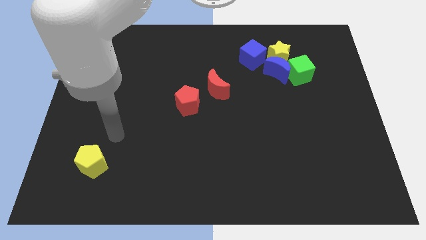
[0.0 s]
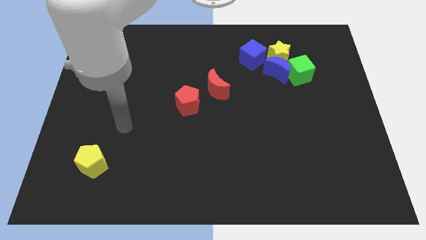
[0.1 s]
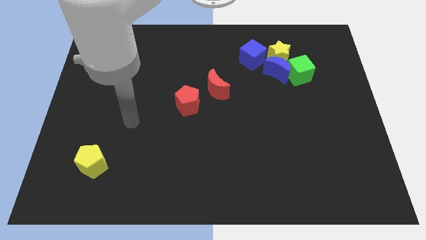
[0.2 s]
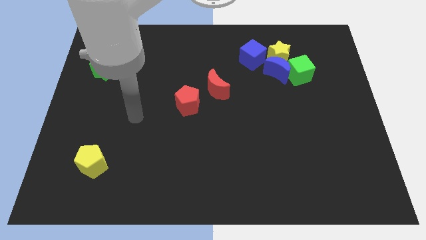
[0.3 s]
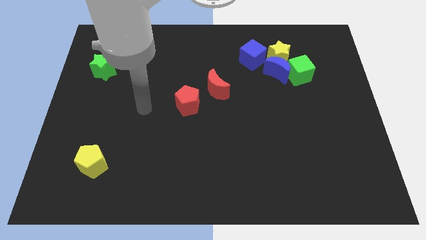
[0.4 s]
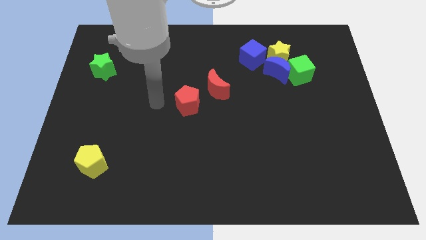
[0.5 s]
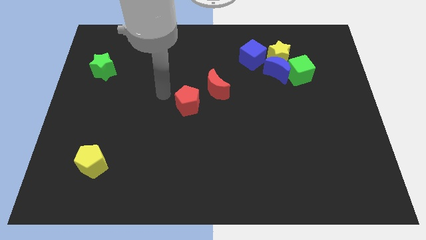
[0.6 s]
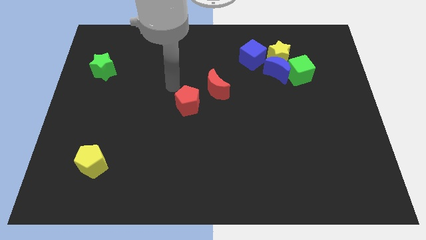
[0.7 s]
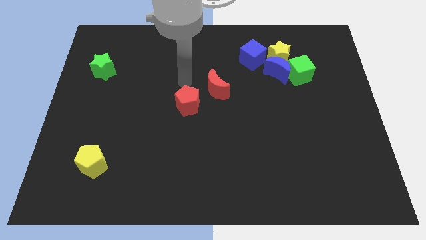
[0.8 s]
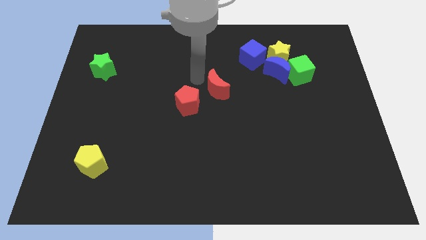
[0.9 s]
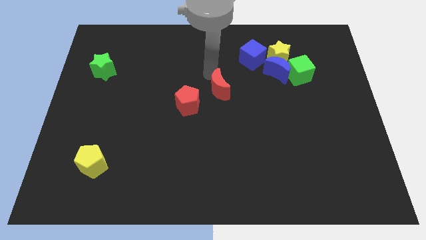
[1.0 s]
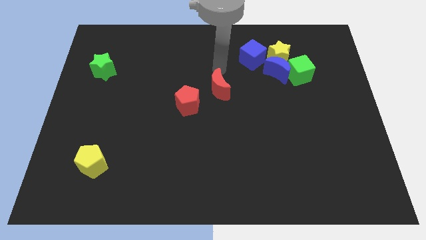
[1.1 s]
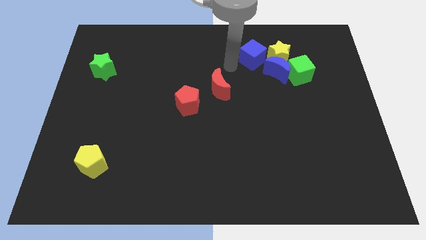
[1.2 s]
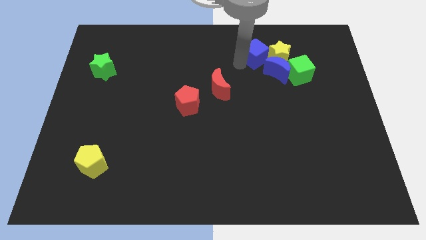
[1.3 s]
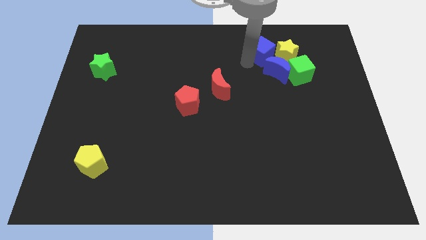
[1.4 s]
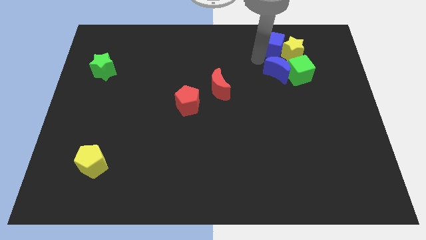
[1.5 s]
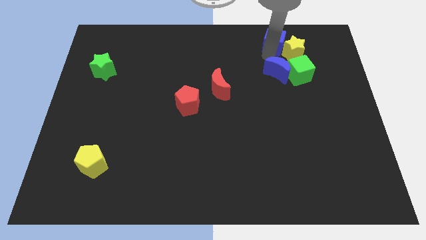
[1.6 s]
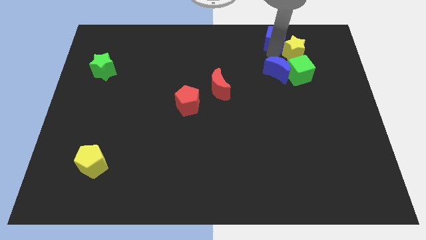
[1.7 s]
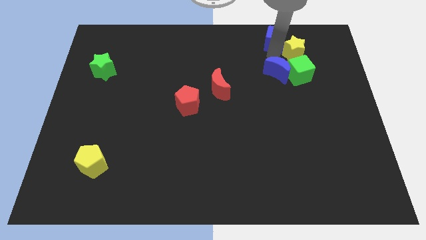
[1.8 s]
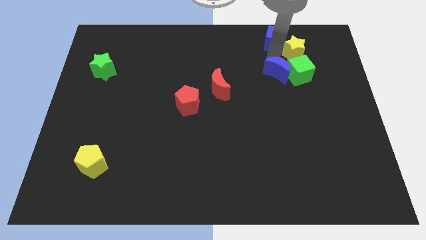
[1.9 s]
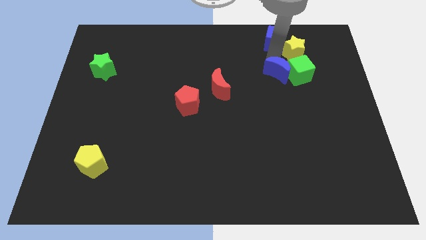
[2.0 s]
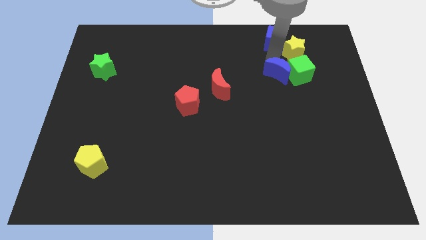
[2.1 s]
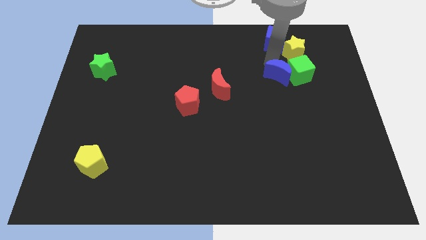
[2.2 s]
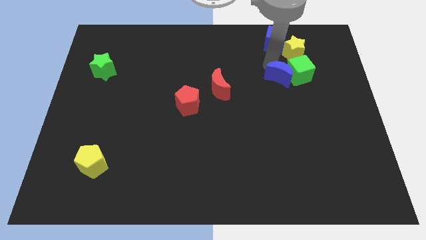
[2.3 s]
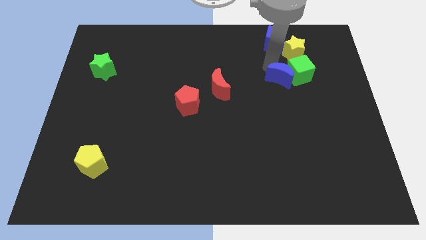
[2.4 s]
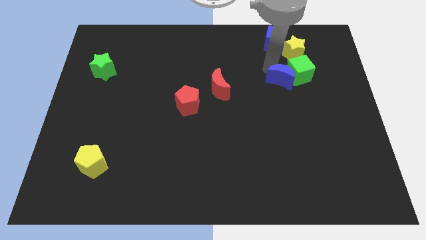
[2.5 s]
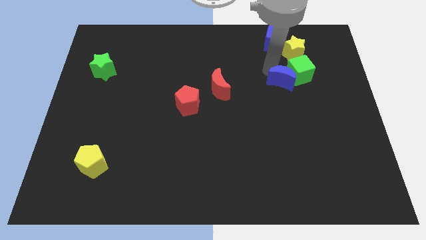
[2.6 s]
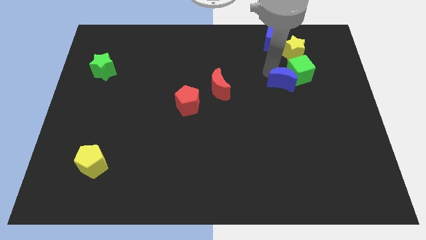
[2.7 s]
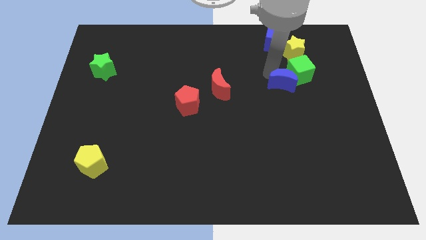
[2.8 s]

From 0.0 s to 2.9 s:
pull the blue moon apart from the clump

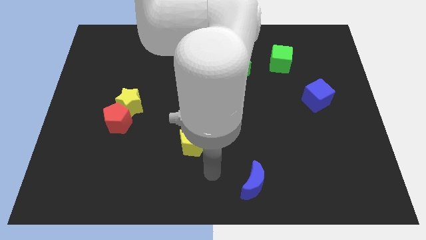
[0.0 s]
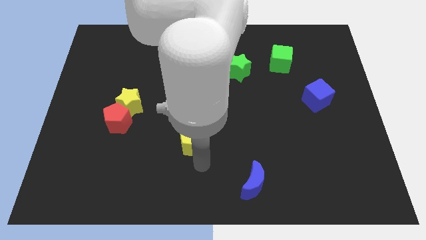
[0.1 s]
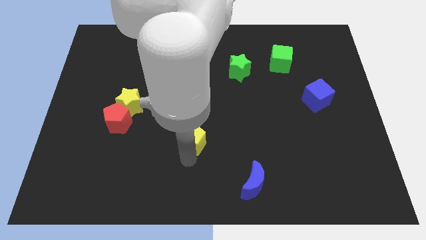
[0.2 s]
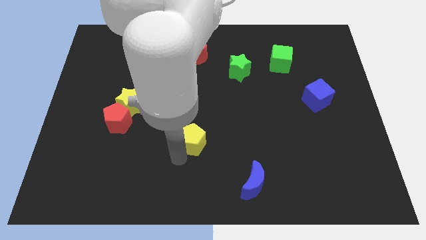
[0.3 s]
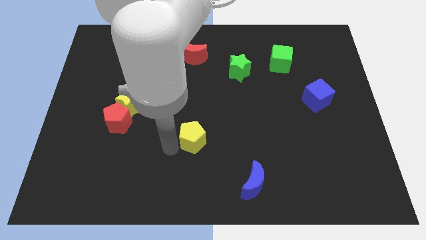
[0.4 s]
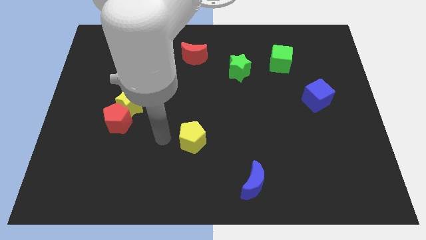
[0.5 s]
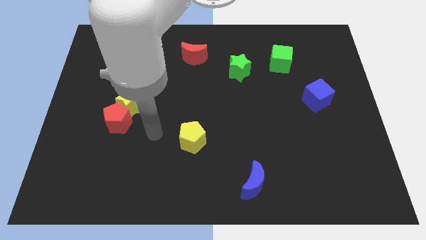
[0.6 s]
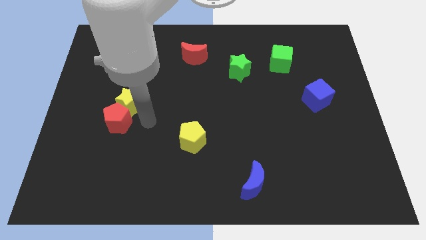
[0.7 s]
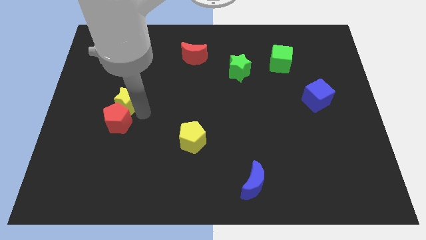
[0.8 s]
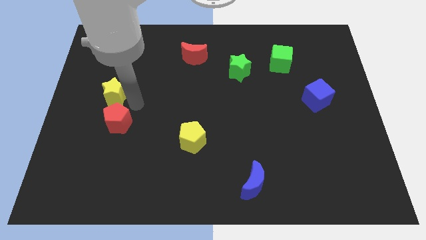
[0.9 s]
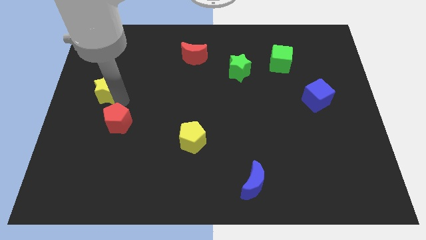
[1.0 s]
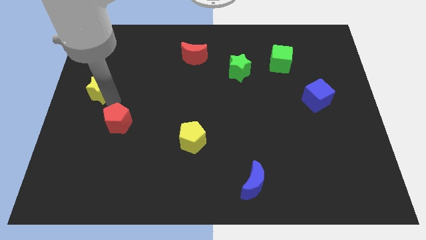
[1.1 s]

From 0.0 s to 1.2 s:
separate the red pentagon from the yellow star

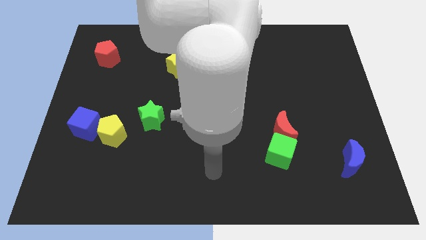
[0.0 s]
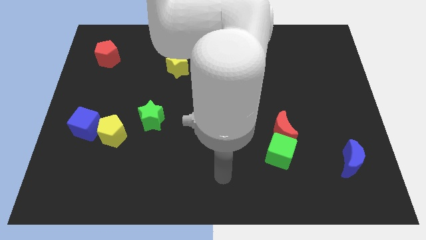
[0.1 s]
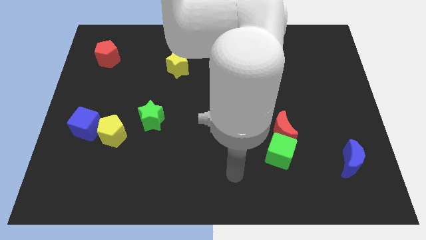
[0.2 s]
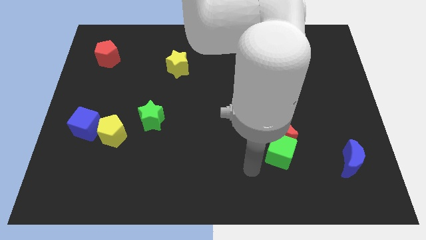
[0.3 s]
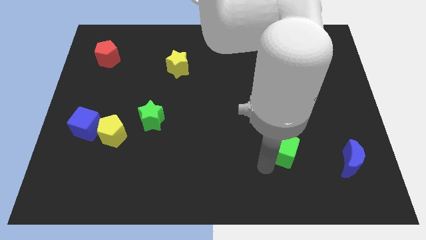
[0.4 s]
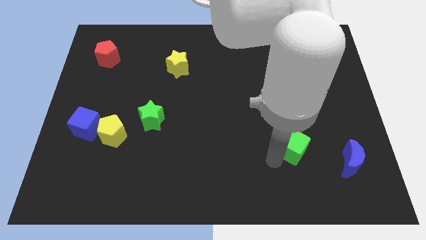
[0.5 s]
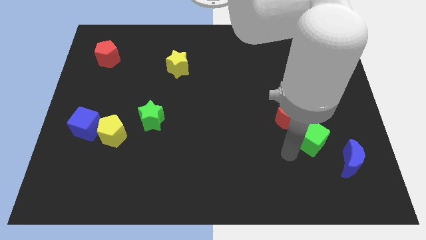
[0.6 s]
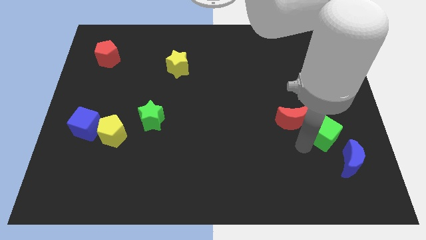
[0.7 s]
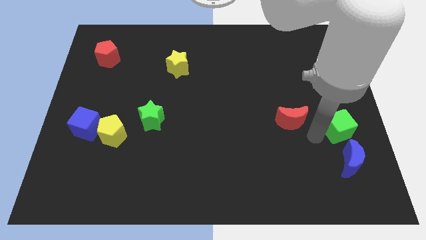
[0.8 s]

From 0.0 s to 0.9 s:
separate the red moon from the green cube

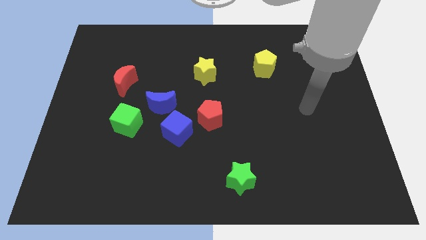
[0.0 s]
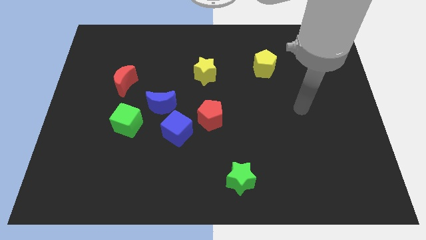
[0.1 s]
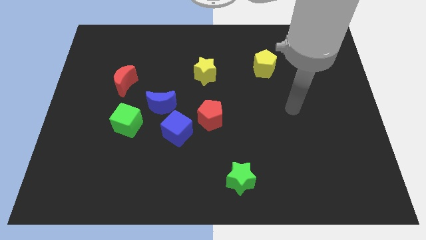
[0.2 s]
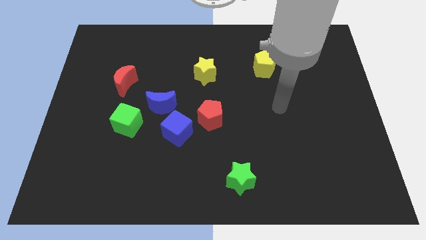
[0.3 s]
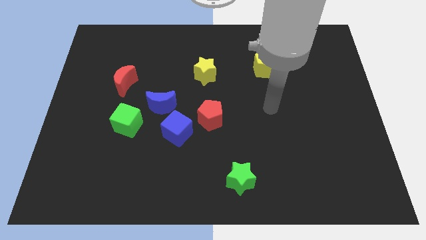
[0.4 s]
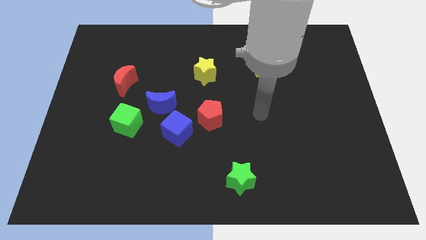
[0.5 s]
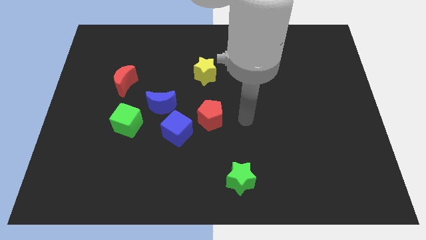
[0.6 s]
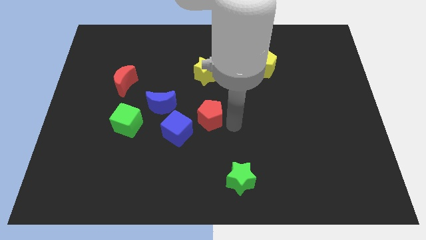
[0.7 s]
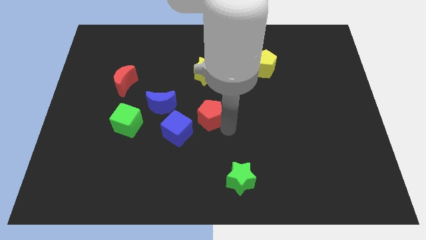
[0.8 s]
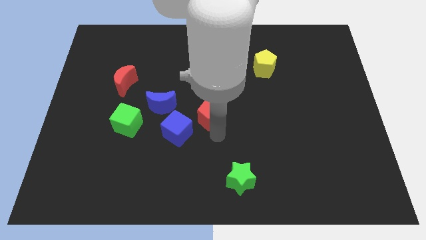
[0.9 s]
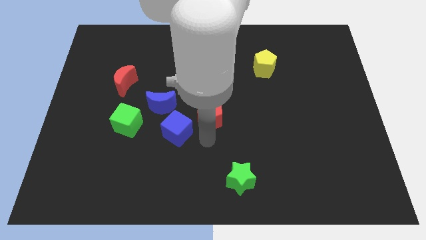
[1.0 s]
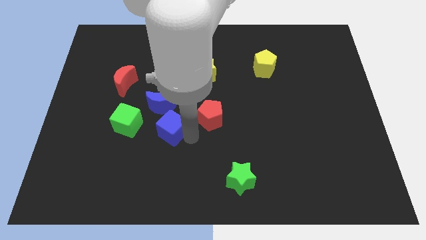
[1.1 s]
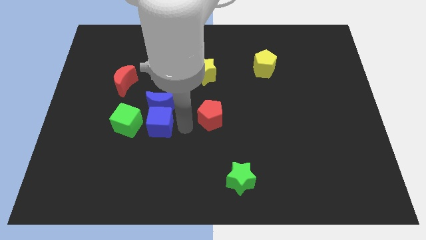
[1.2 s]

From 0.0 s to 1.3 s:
separate the red pentagon from the blue cube

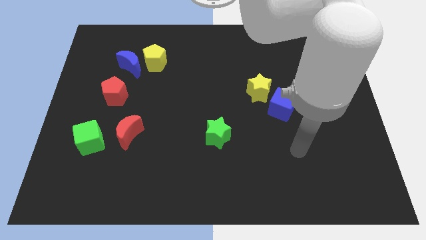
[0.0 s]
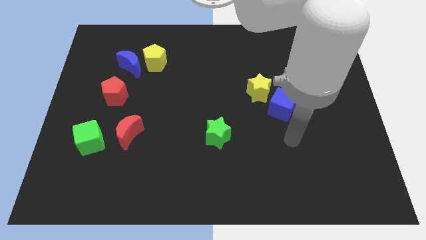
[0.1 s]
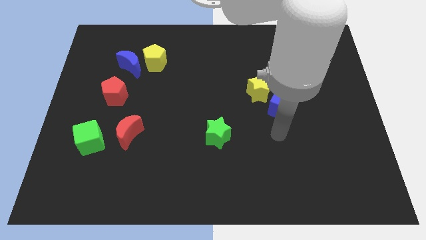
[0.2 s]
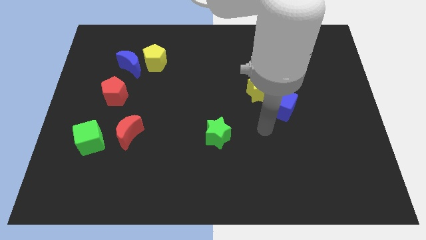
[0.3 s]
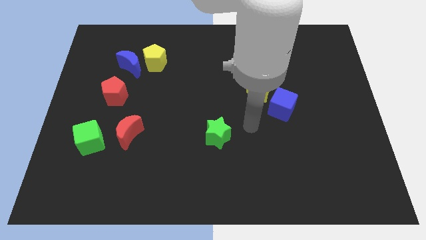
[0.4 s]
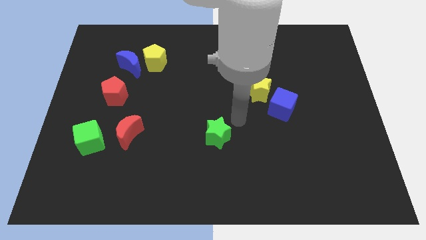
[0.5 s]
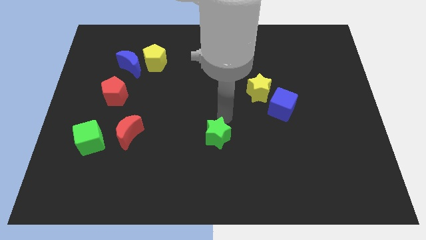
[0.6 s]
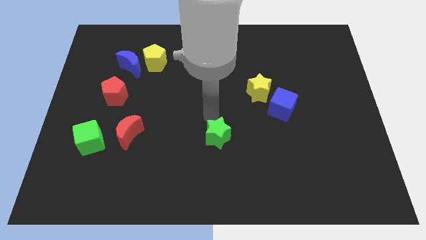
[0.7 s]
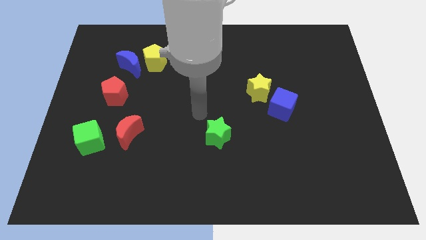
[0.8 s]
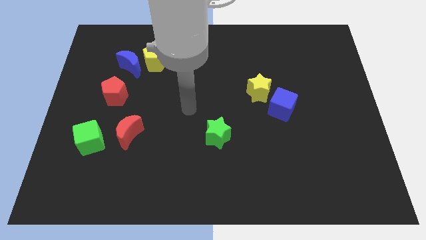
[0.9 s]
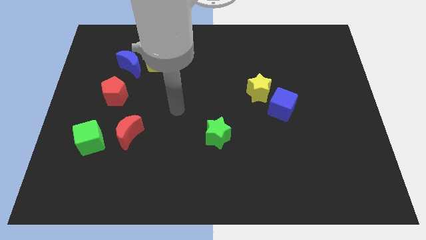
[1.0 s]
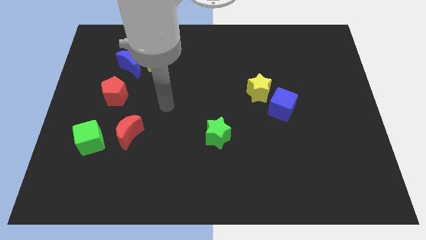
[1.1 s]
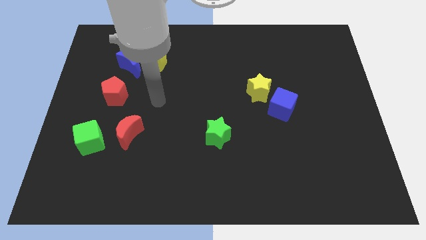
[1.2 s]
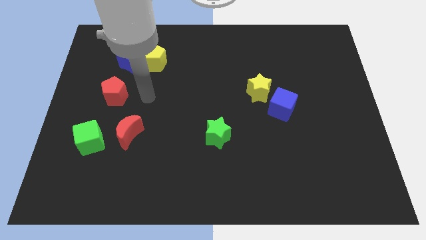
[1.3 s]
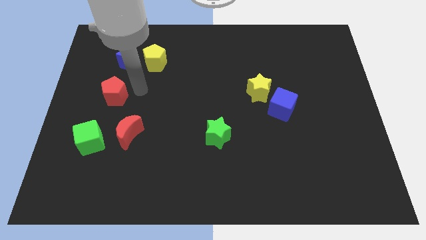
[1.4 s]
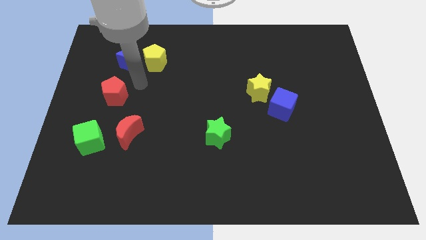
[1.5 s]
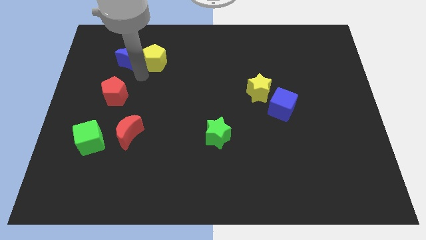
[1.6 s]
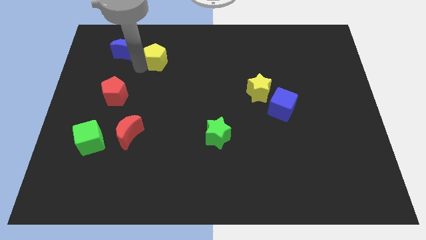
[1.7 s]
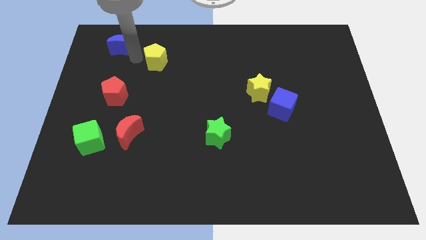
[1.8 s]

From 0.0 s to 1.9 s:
pull the yellow pentagon apart from the blue moon

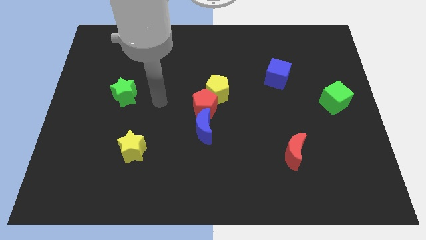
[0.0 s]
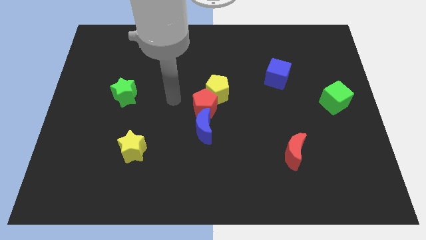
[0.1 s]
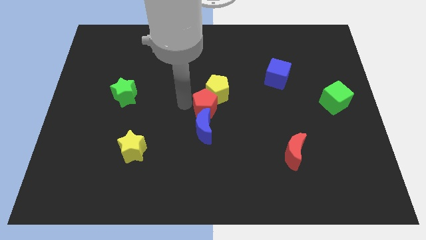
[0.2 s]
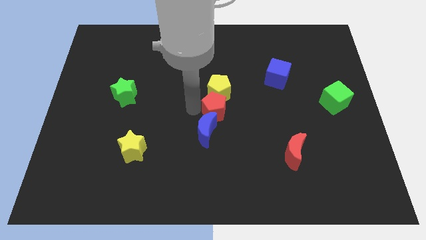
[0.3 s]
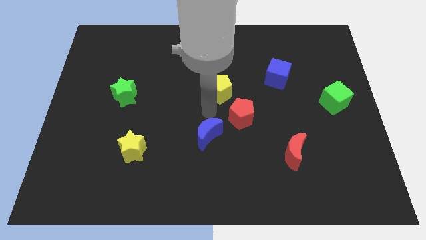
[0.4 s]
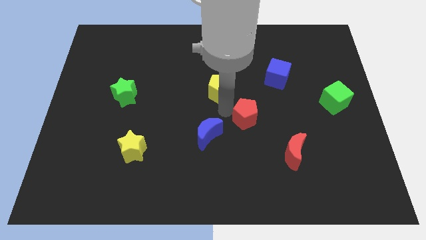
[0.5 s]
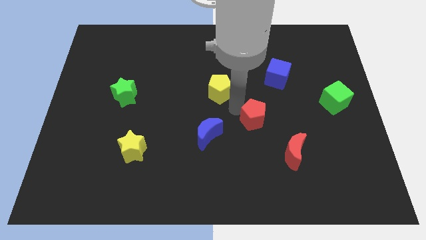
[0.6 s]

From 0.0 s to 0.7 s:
separate the yellow pentagon from the red pentagon

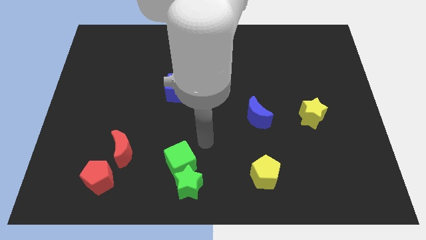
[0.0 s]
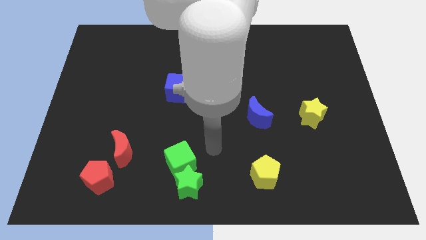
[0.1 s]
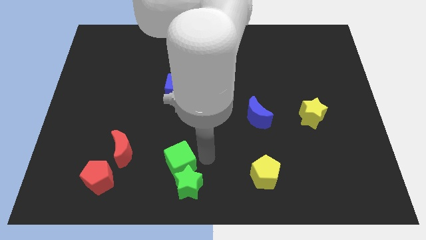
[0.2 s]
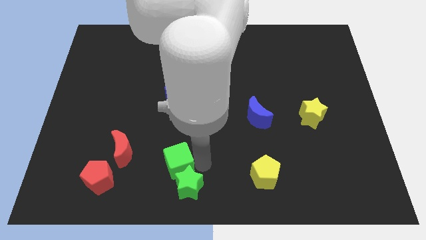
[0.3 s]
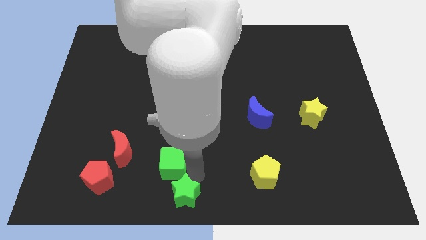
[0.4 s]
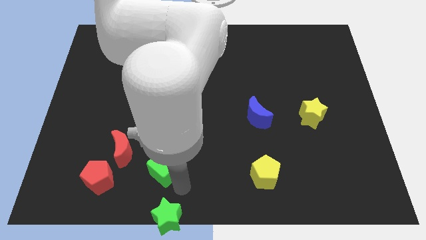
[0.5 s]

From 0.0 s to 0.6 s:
move the green cube away from the green star

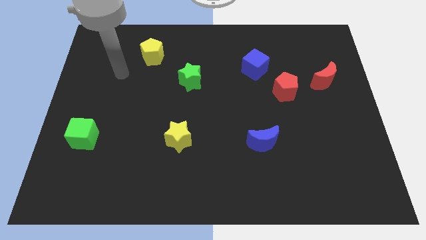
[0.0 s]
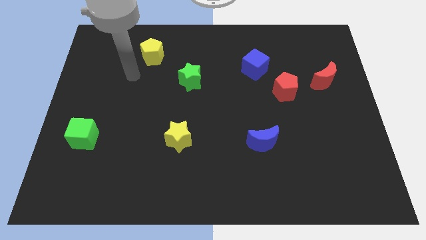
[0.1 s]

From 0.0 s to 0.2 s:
pull the red pentagon apart from the blue cube
